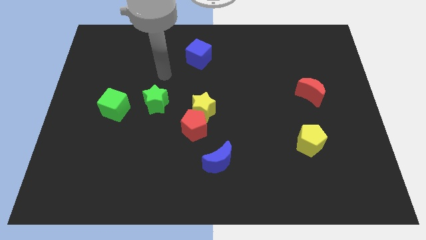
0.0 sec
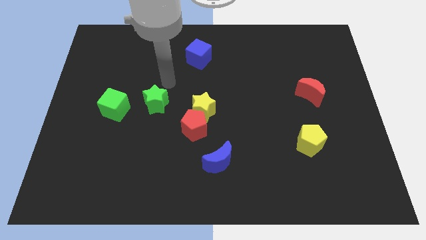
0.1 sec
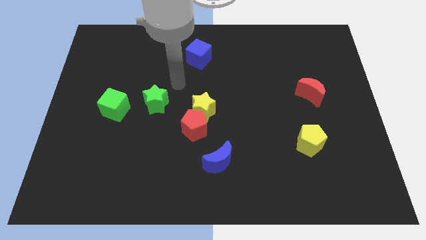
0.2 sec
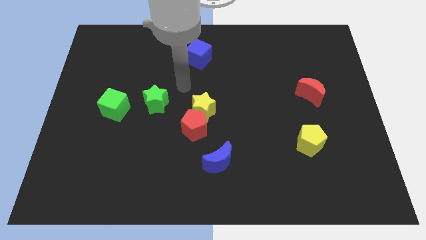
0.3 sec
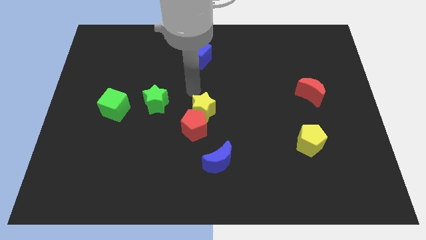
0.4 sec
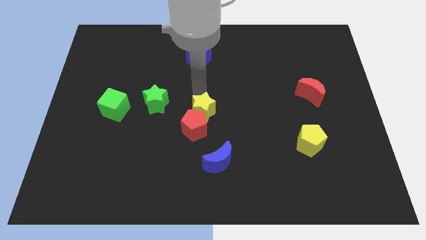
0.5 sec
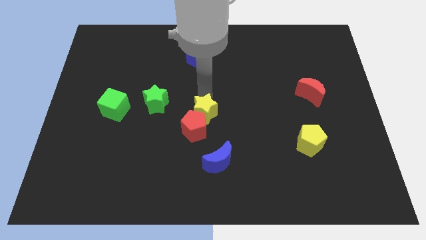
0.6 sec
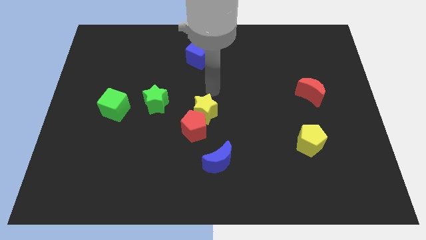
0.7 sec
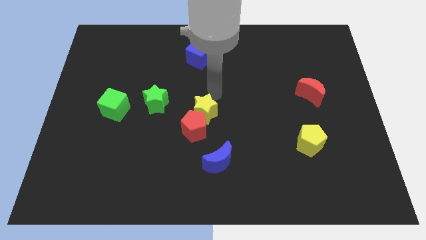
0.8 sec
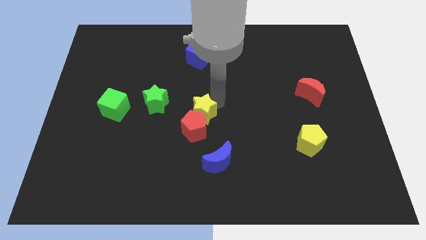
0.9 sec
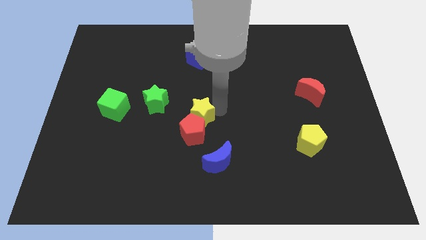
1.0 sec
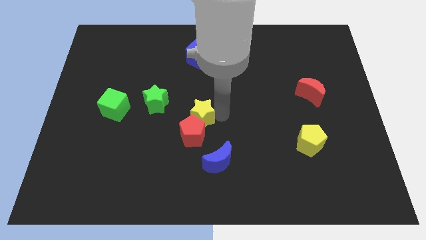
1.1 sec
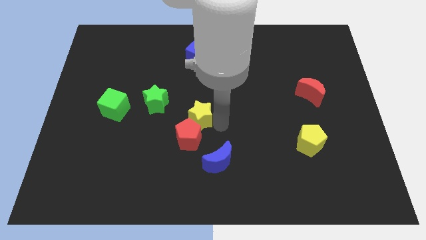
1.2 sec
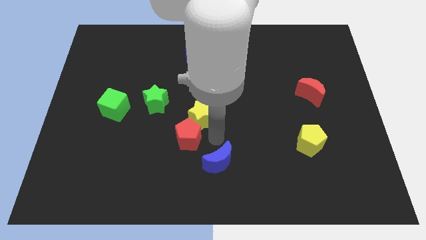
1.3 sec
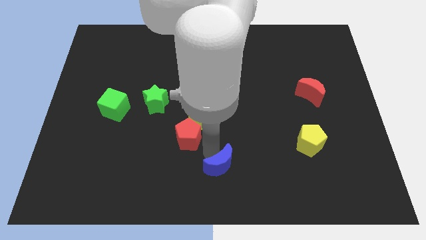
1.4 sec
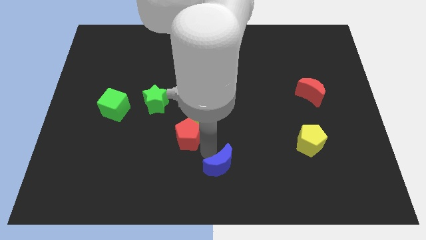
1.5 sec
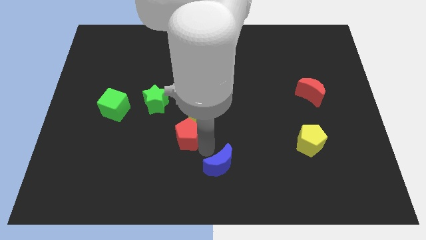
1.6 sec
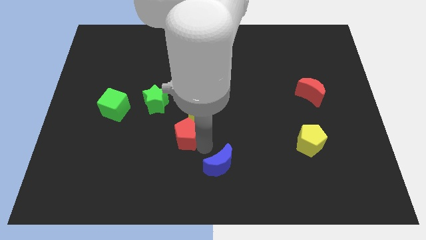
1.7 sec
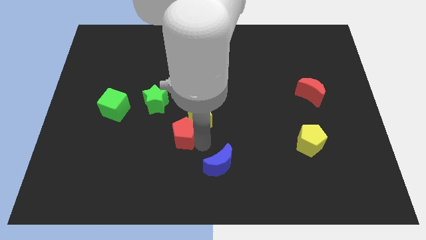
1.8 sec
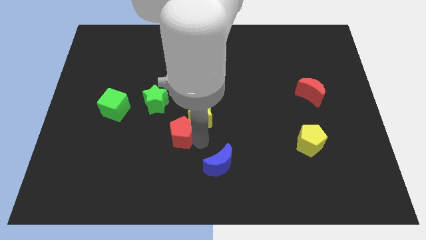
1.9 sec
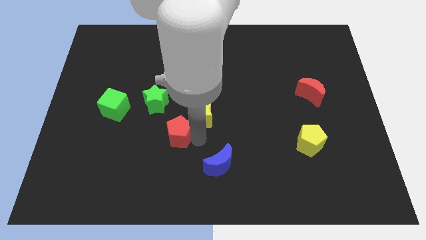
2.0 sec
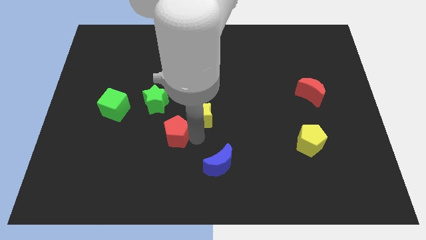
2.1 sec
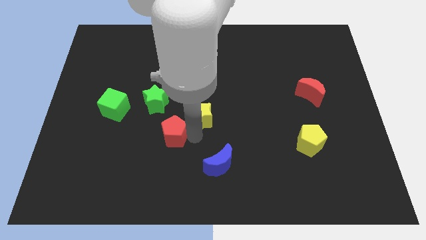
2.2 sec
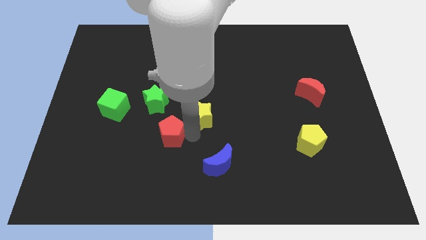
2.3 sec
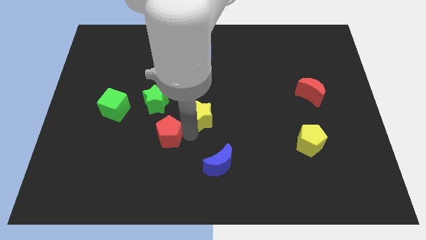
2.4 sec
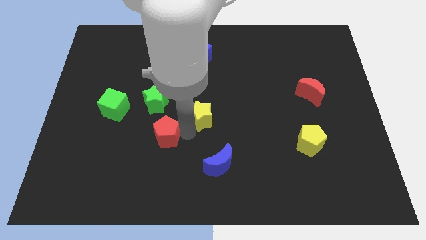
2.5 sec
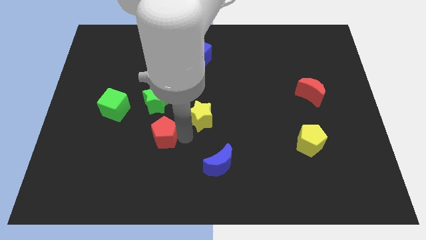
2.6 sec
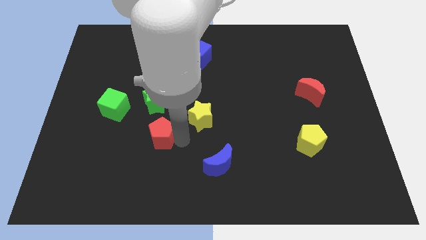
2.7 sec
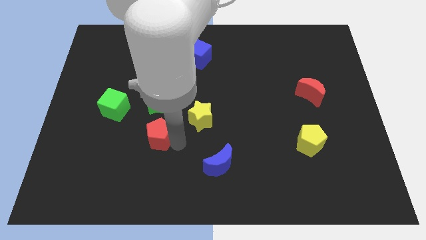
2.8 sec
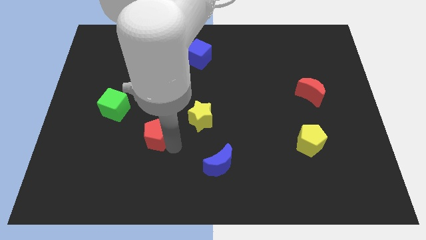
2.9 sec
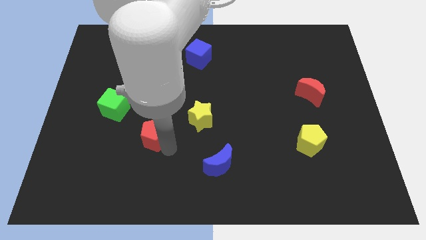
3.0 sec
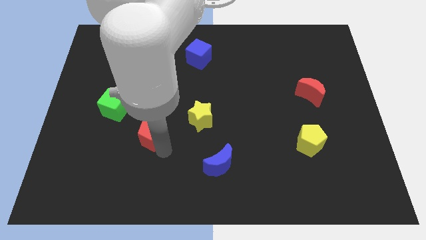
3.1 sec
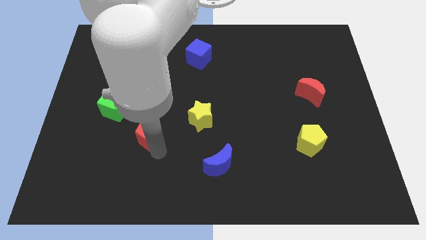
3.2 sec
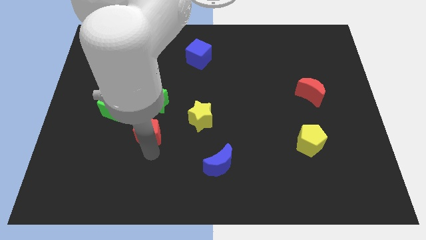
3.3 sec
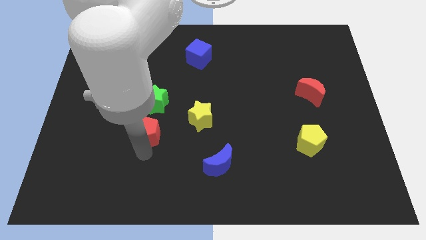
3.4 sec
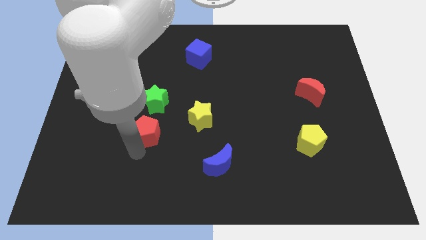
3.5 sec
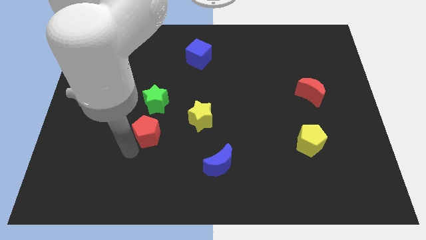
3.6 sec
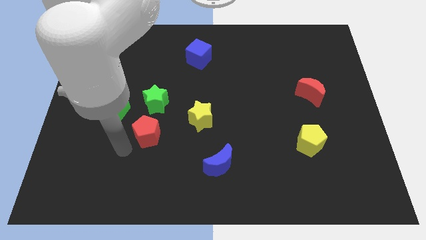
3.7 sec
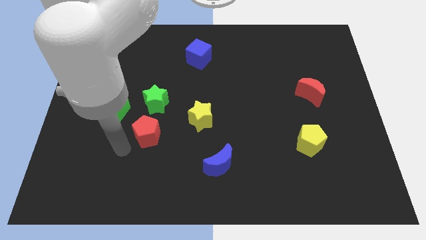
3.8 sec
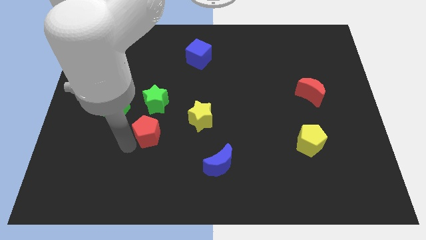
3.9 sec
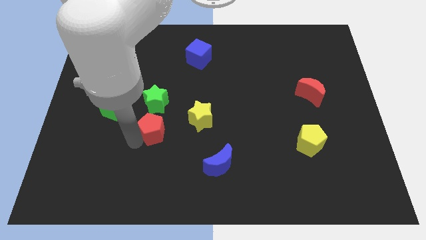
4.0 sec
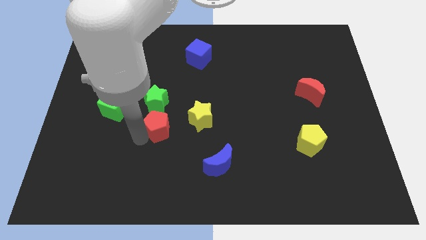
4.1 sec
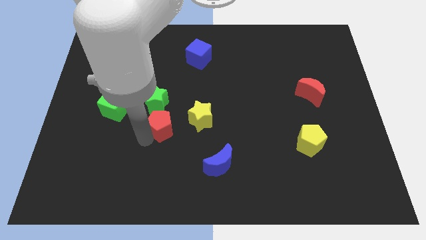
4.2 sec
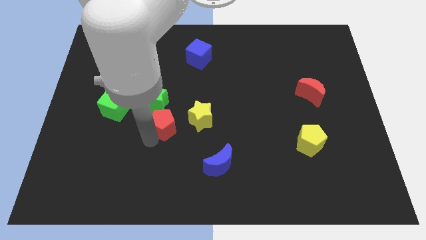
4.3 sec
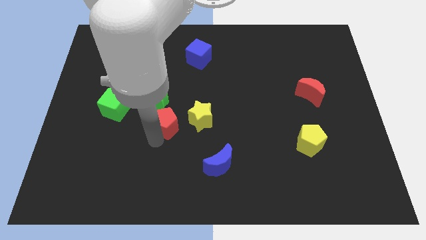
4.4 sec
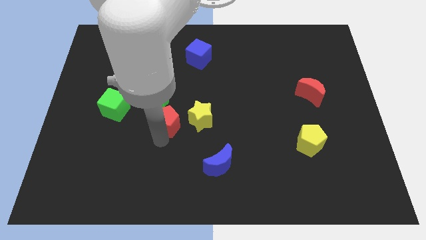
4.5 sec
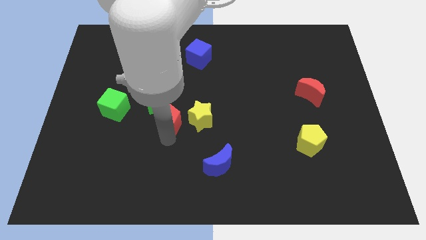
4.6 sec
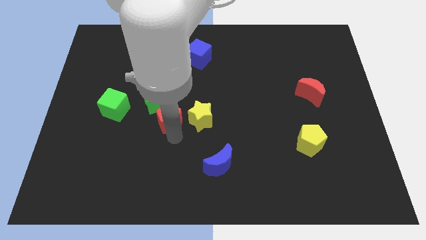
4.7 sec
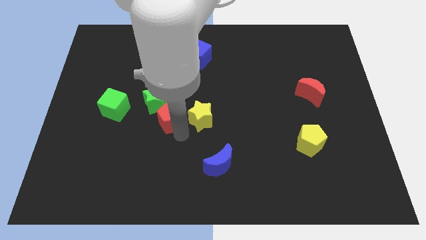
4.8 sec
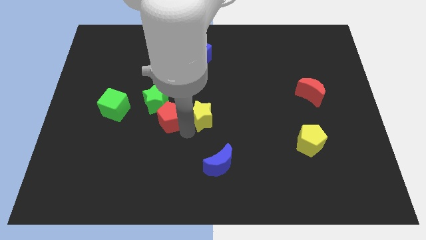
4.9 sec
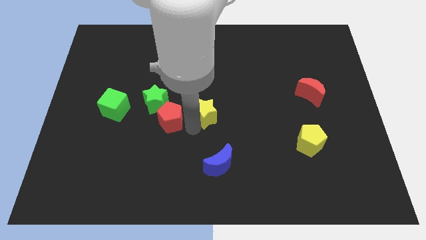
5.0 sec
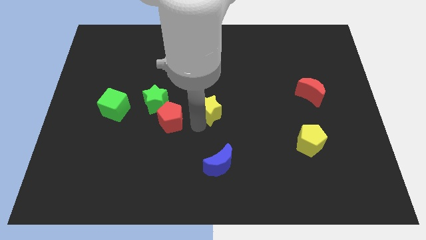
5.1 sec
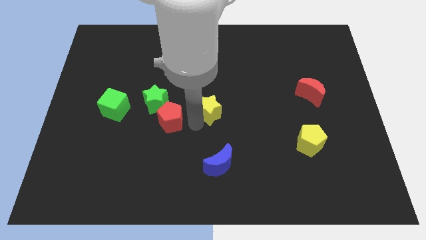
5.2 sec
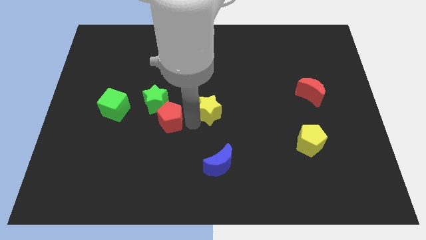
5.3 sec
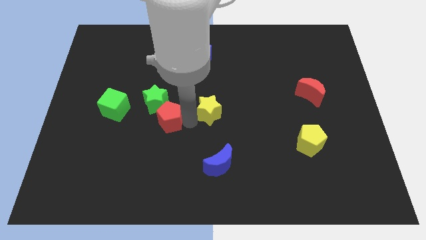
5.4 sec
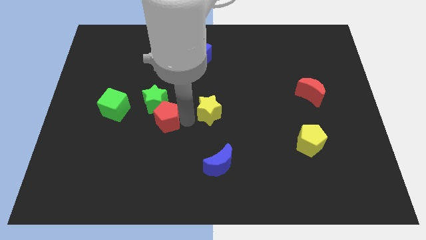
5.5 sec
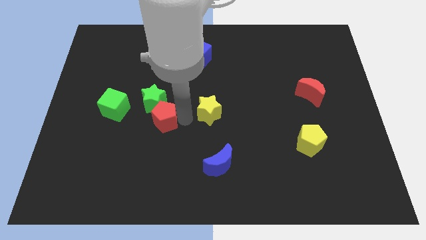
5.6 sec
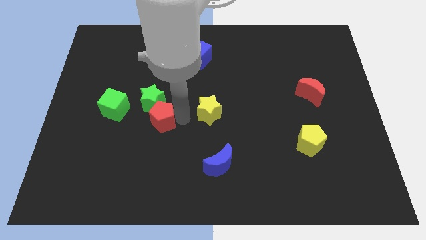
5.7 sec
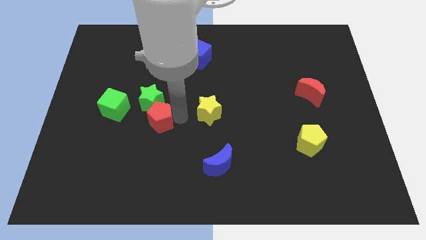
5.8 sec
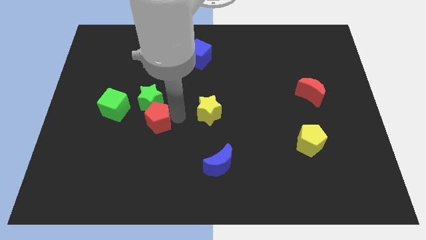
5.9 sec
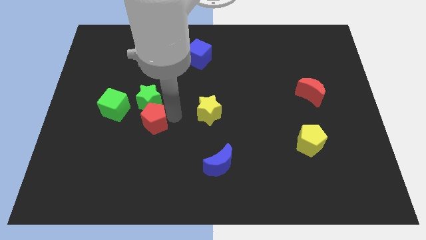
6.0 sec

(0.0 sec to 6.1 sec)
slightly push the red pentagon up and then to the left

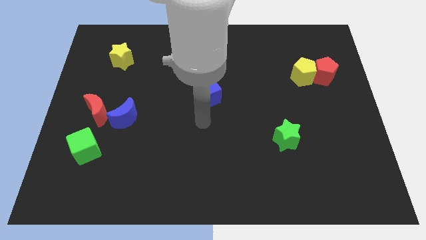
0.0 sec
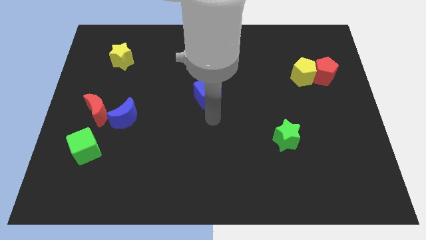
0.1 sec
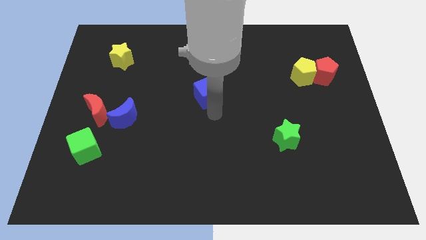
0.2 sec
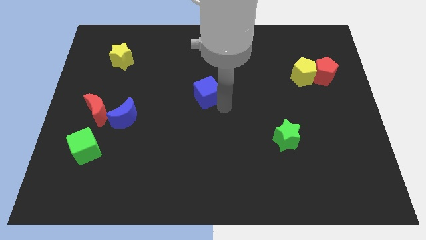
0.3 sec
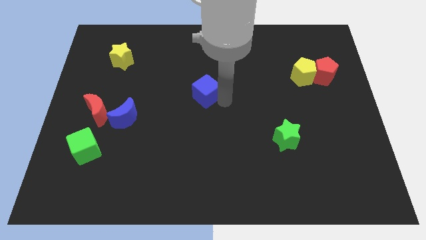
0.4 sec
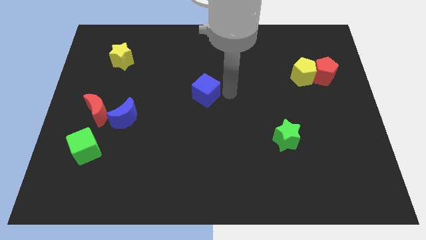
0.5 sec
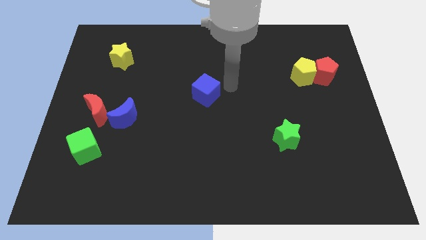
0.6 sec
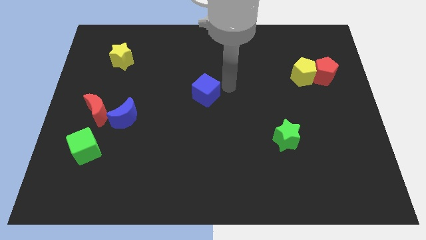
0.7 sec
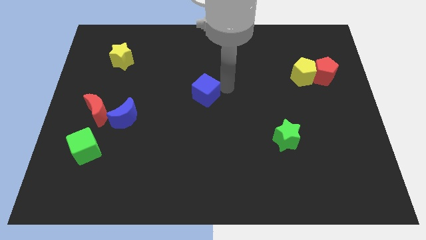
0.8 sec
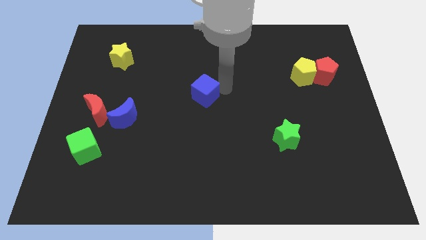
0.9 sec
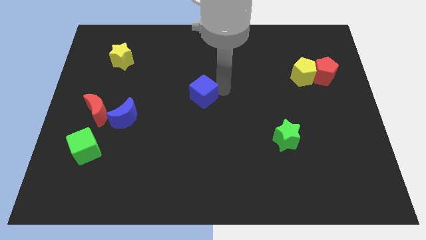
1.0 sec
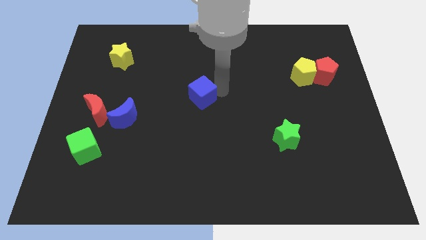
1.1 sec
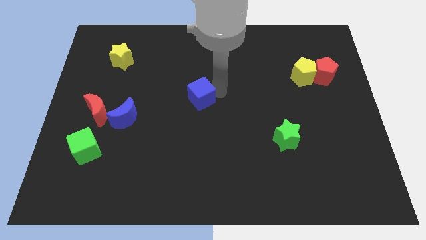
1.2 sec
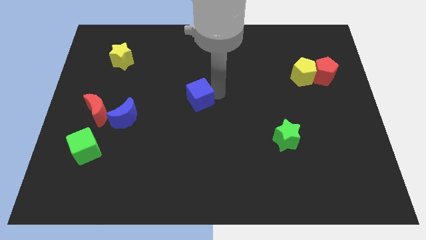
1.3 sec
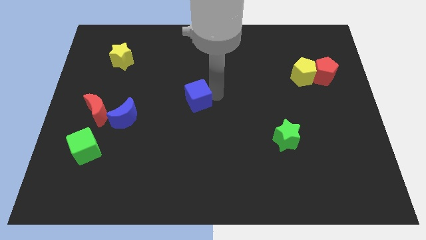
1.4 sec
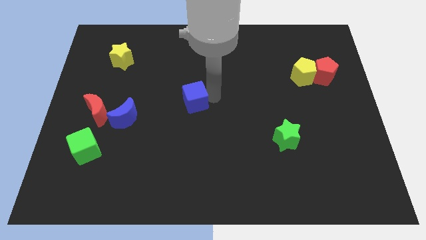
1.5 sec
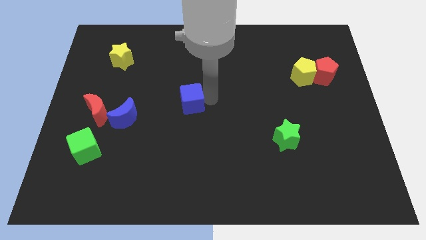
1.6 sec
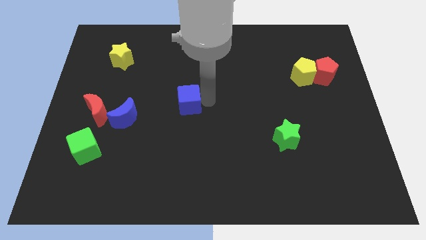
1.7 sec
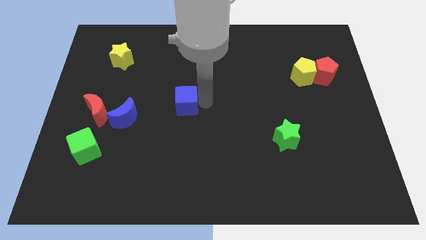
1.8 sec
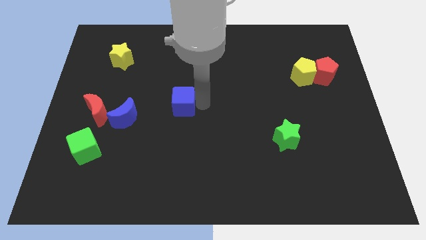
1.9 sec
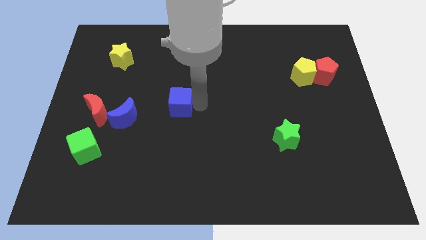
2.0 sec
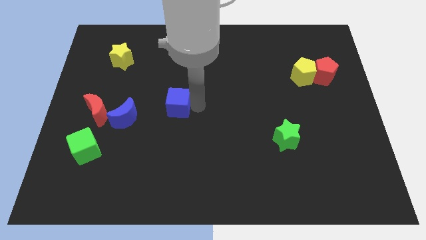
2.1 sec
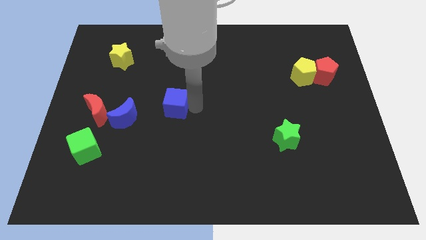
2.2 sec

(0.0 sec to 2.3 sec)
slide the blue cube a bit left
